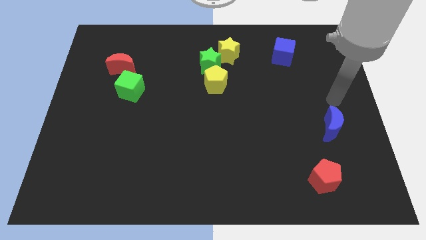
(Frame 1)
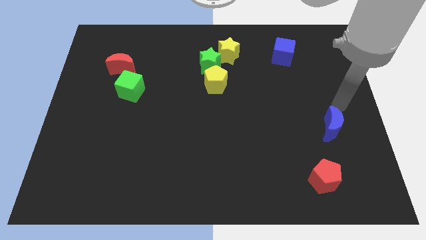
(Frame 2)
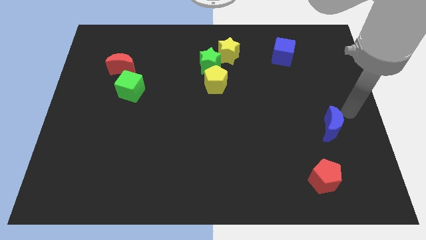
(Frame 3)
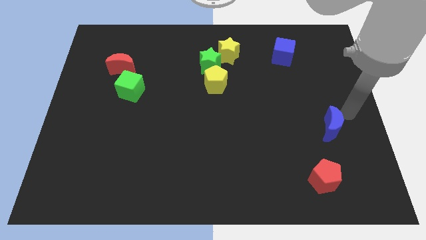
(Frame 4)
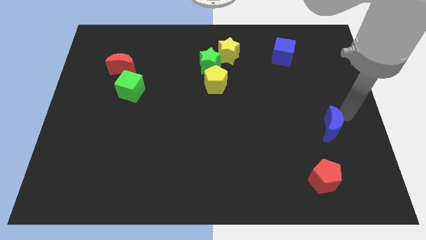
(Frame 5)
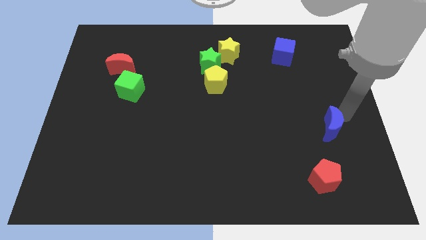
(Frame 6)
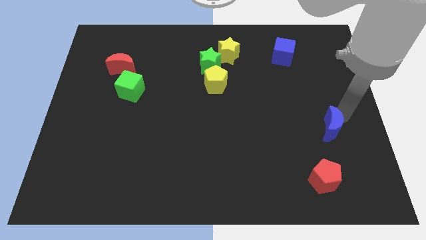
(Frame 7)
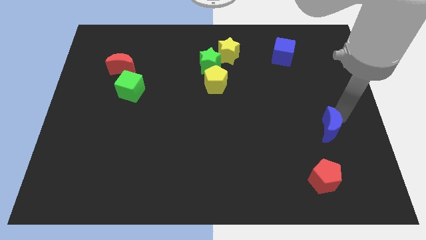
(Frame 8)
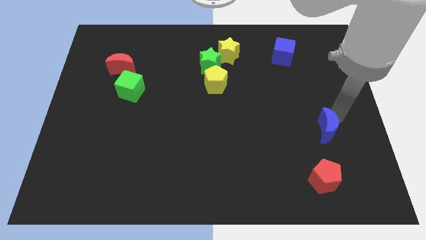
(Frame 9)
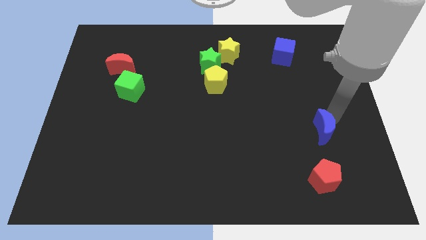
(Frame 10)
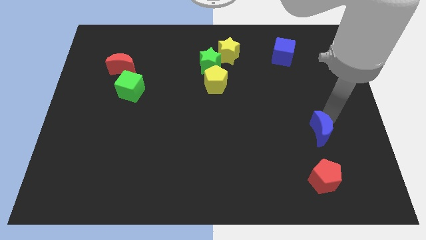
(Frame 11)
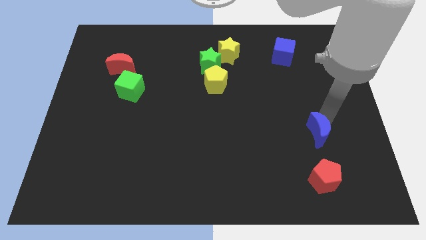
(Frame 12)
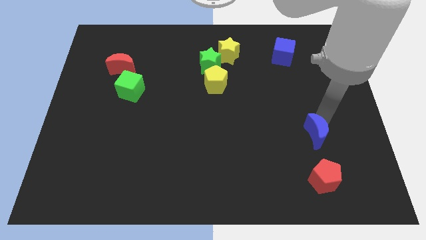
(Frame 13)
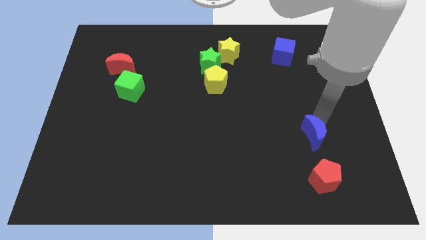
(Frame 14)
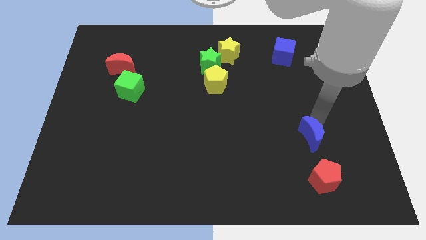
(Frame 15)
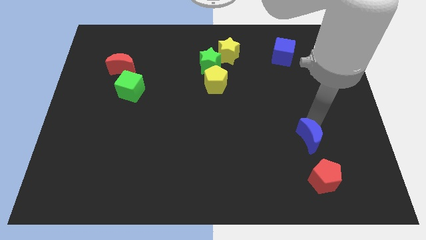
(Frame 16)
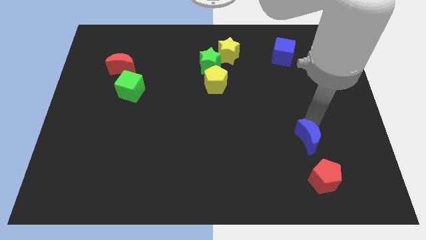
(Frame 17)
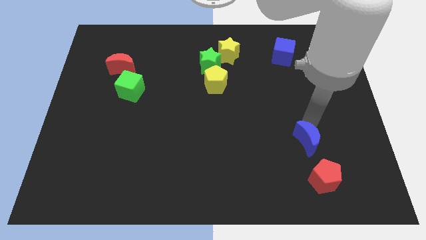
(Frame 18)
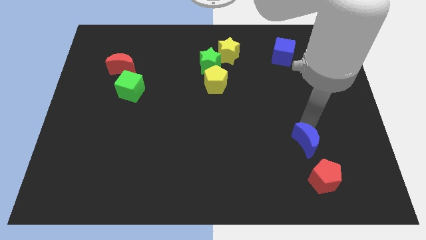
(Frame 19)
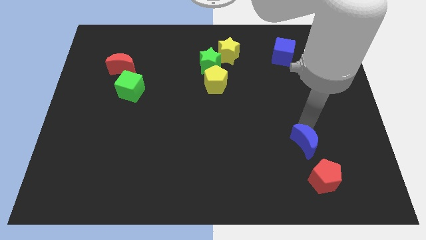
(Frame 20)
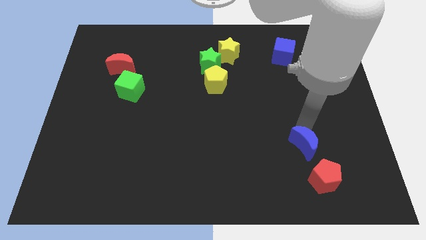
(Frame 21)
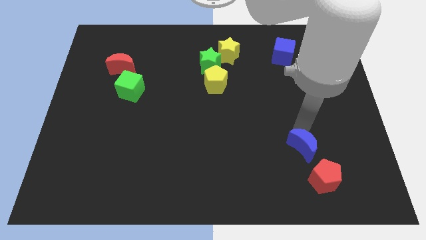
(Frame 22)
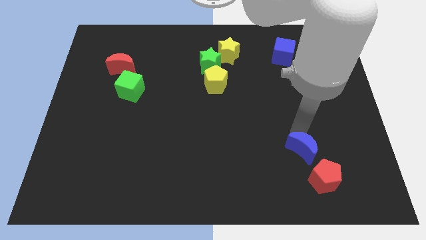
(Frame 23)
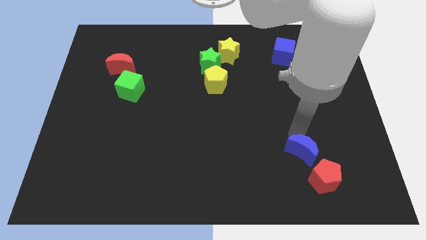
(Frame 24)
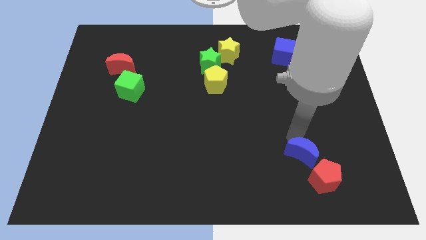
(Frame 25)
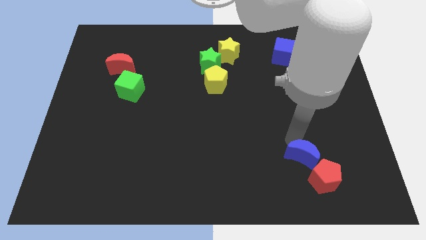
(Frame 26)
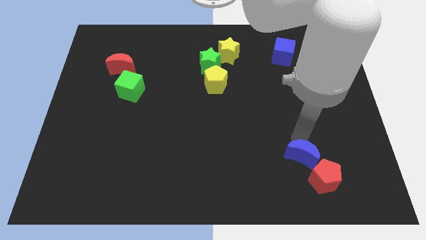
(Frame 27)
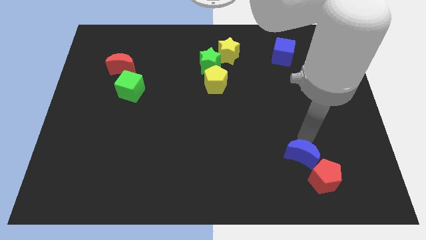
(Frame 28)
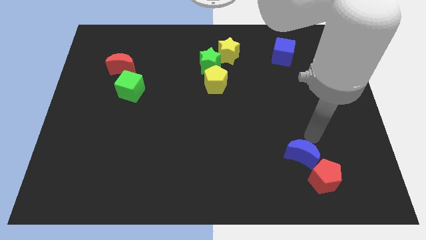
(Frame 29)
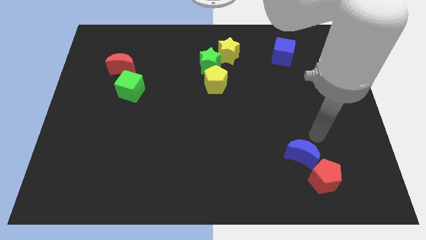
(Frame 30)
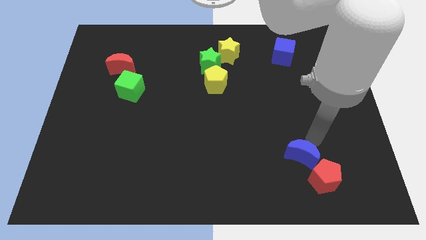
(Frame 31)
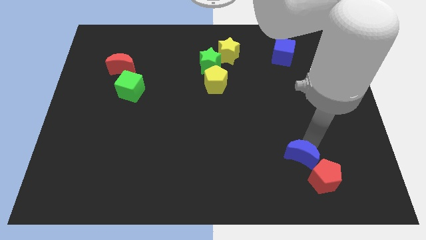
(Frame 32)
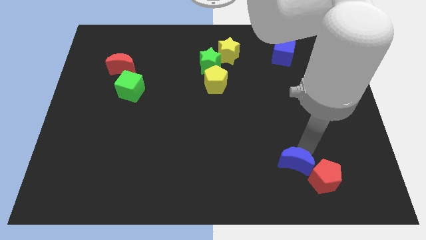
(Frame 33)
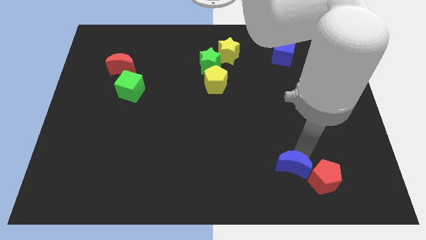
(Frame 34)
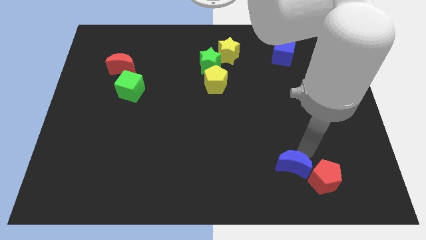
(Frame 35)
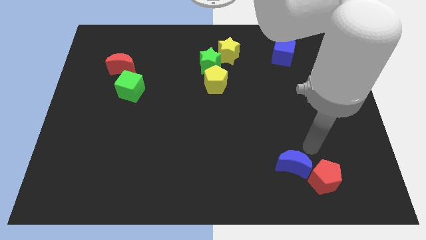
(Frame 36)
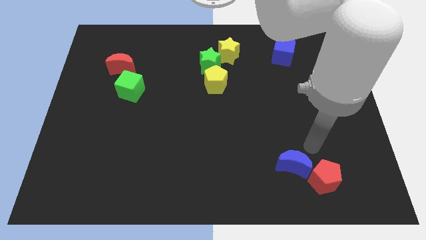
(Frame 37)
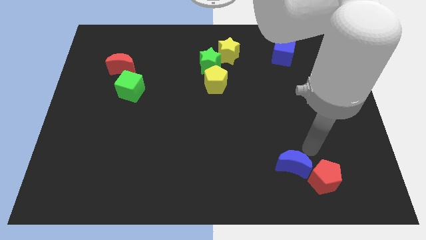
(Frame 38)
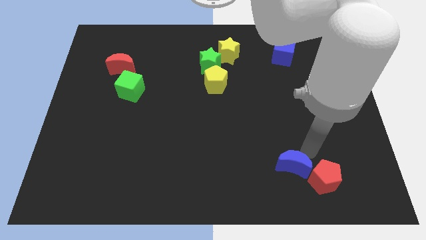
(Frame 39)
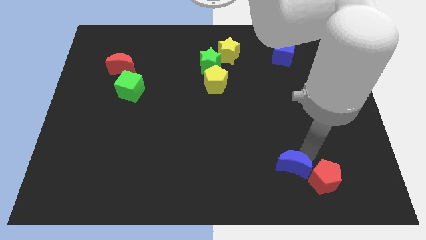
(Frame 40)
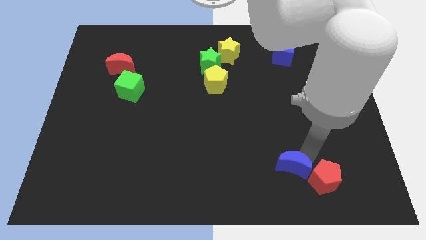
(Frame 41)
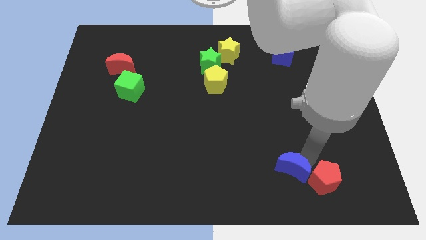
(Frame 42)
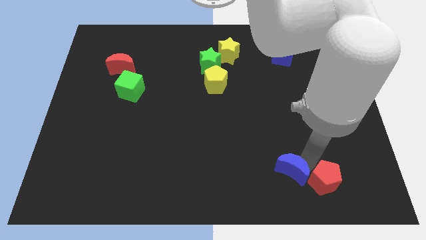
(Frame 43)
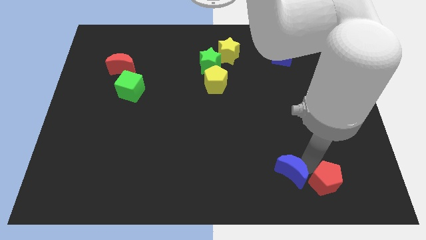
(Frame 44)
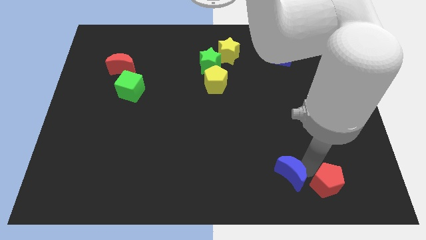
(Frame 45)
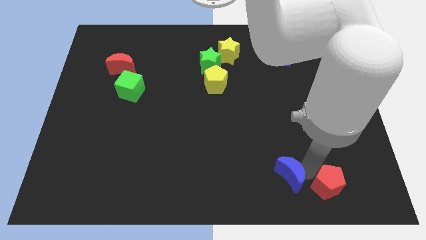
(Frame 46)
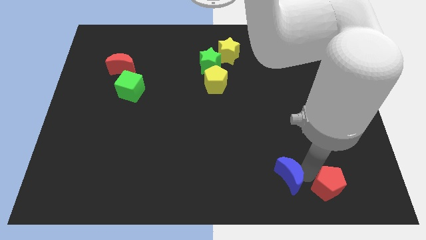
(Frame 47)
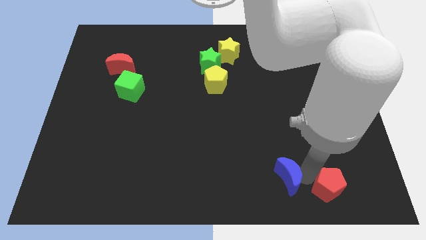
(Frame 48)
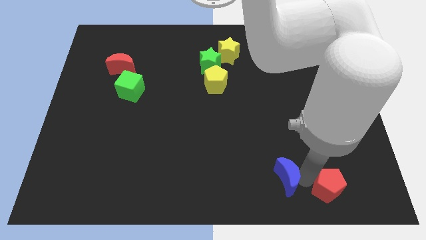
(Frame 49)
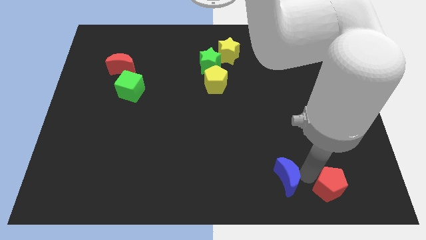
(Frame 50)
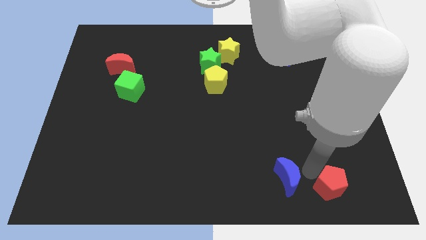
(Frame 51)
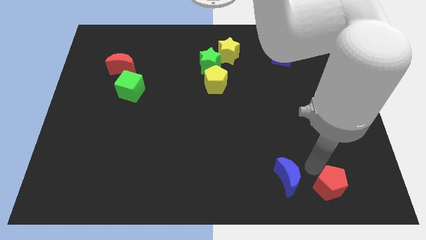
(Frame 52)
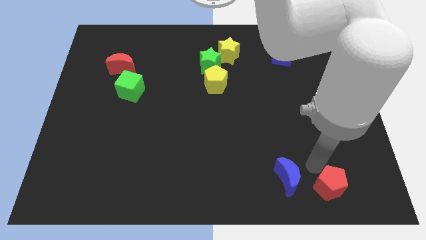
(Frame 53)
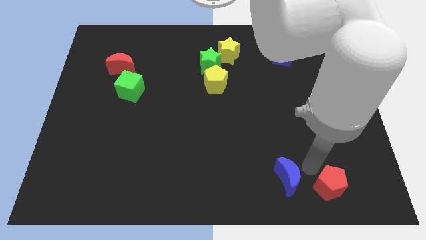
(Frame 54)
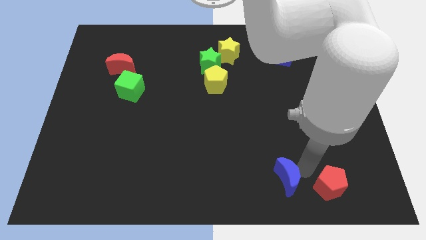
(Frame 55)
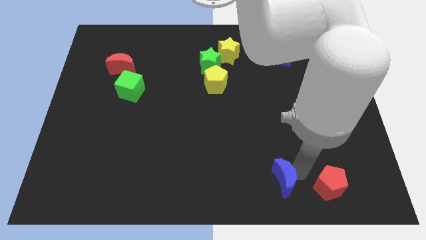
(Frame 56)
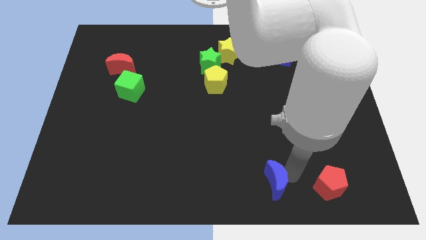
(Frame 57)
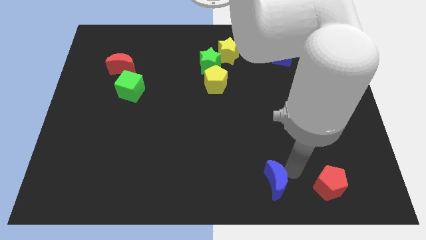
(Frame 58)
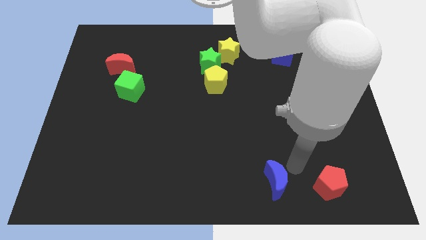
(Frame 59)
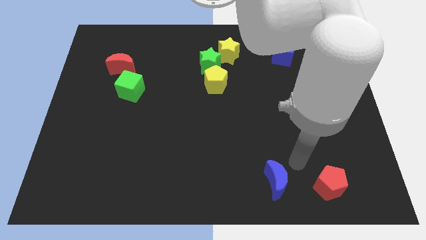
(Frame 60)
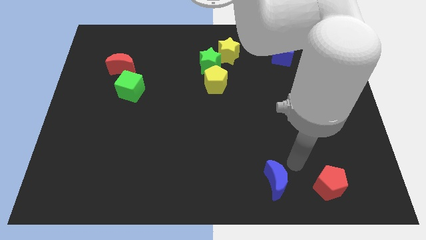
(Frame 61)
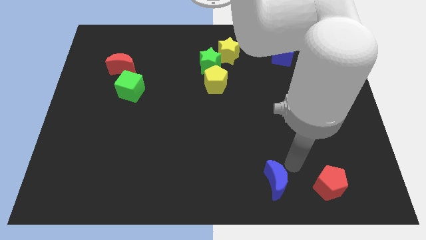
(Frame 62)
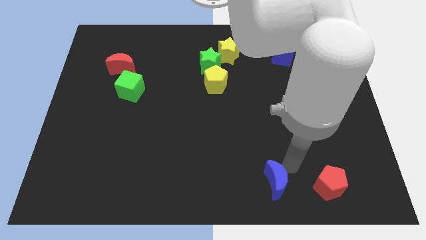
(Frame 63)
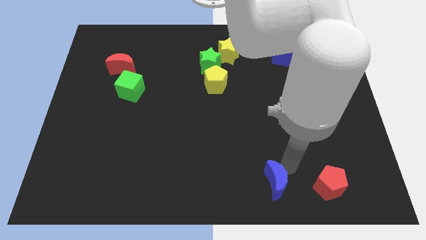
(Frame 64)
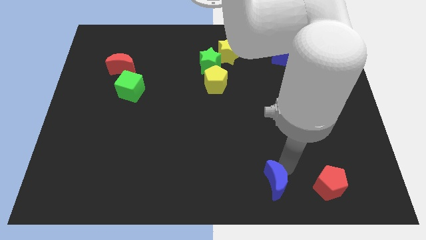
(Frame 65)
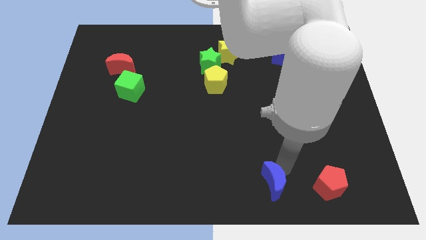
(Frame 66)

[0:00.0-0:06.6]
move the blue moon to the bottom

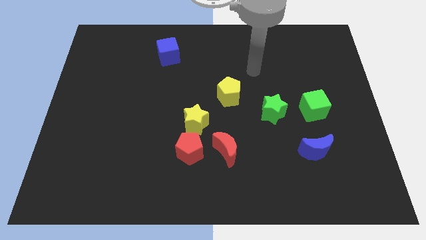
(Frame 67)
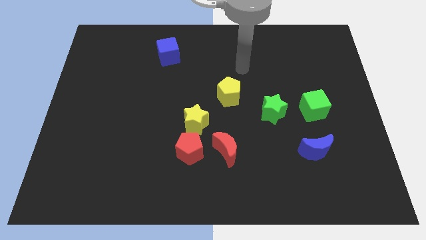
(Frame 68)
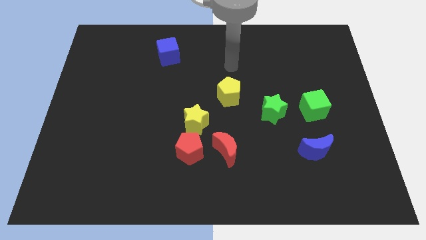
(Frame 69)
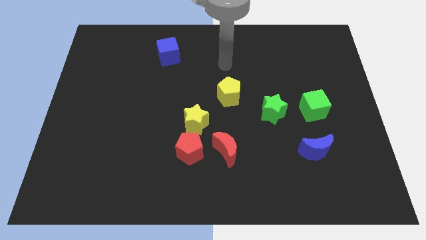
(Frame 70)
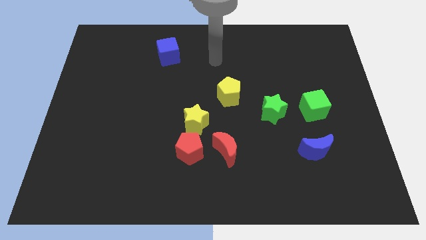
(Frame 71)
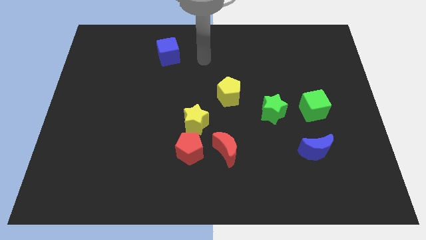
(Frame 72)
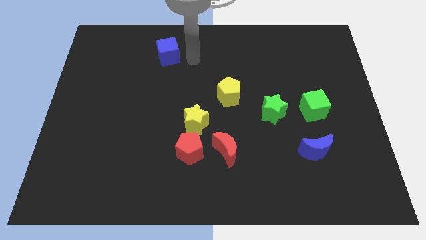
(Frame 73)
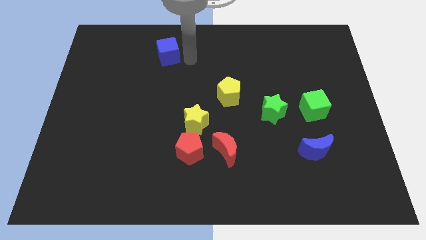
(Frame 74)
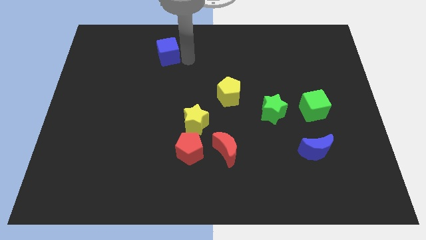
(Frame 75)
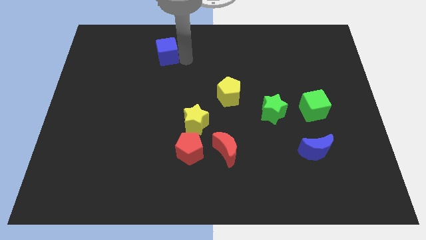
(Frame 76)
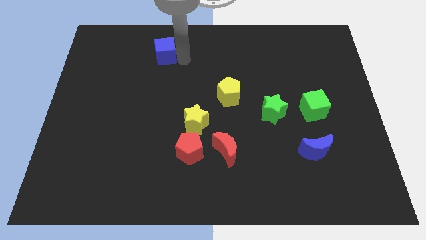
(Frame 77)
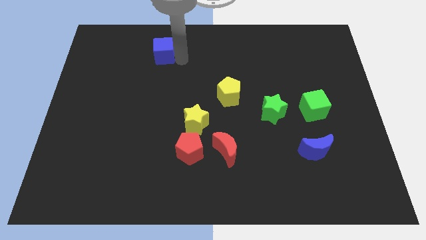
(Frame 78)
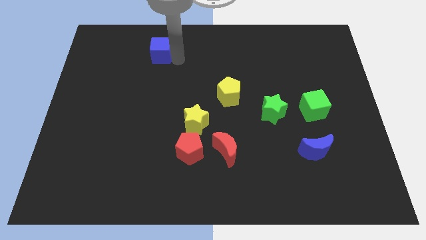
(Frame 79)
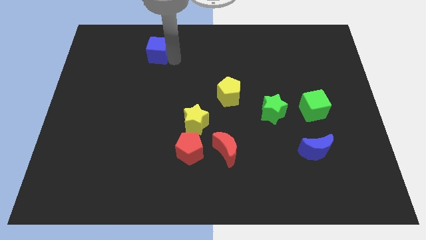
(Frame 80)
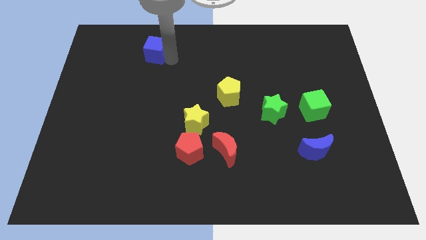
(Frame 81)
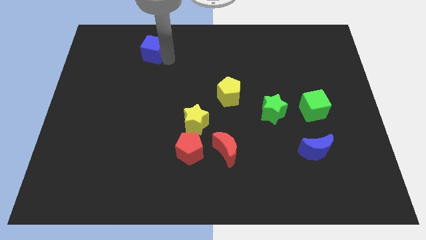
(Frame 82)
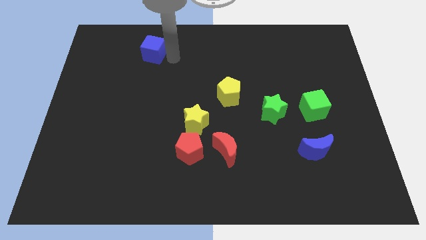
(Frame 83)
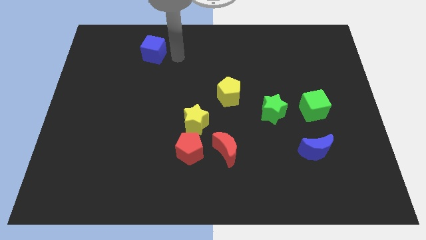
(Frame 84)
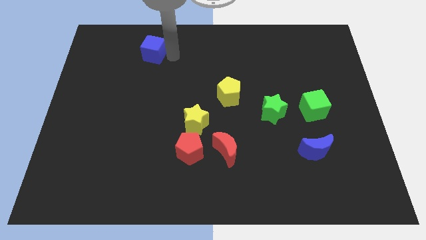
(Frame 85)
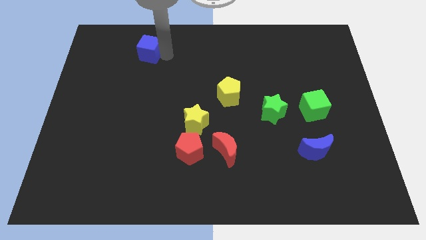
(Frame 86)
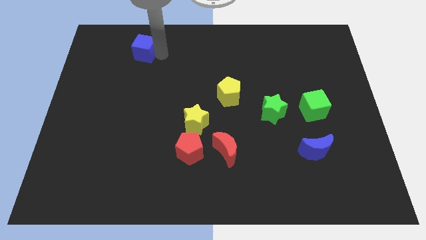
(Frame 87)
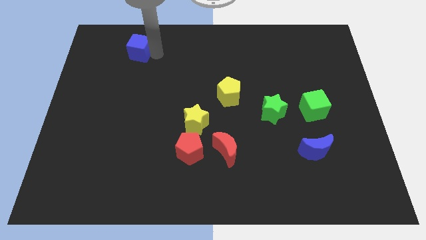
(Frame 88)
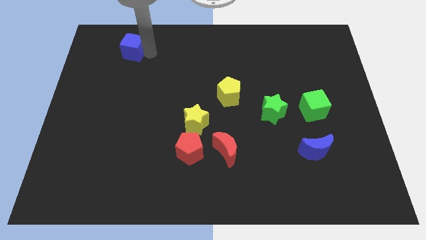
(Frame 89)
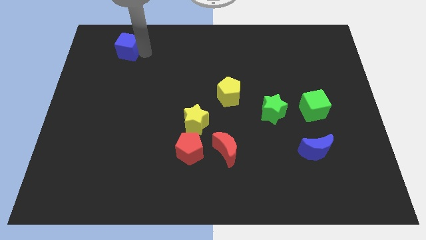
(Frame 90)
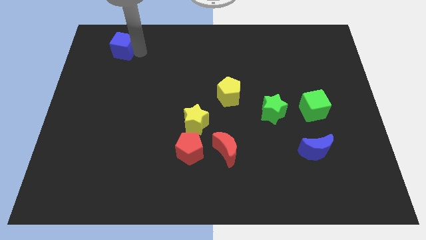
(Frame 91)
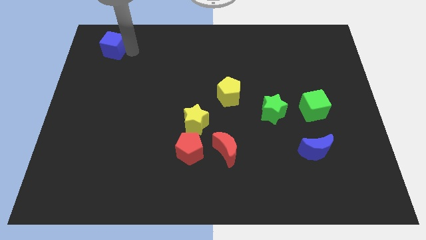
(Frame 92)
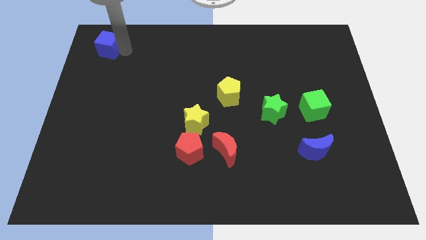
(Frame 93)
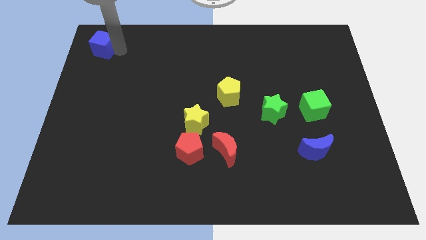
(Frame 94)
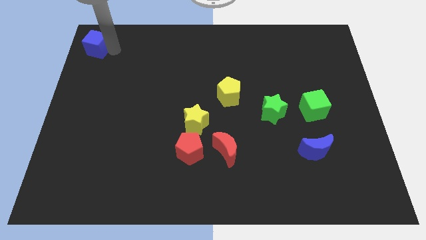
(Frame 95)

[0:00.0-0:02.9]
push the blue cube to the top left
